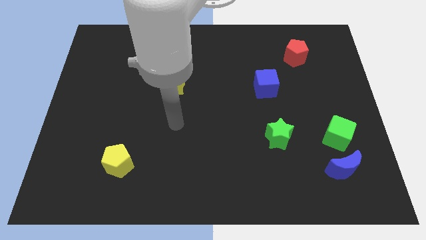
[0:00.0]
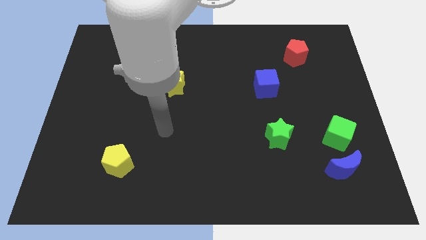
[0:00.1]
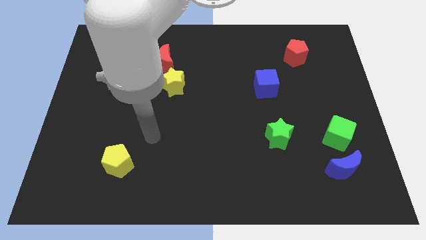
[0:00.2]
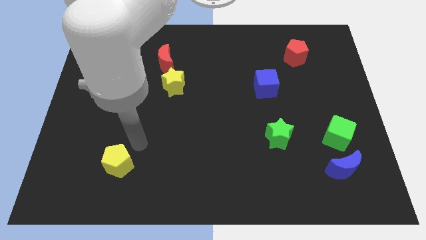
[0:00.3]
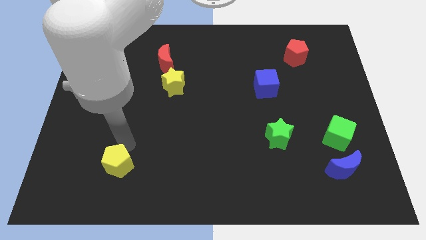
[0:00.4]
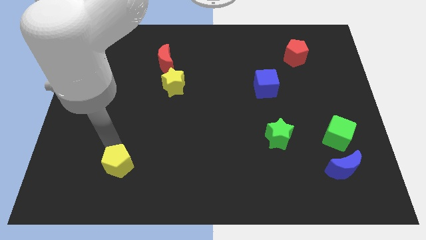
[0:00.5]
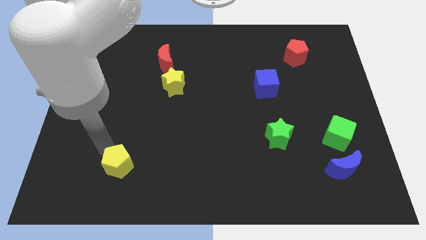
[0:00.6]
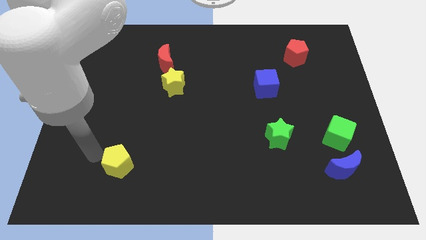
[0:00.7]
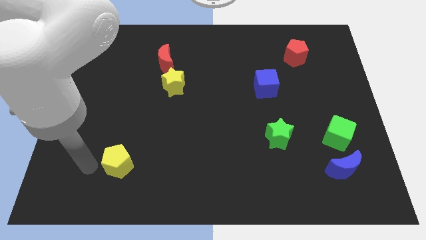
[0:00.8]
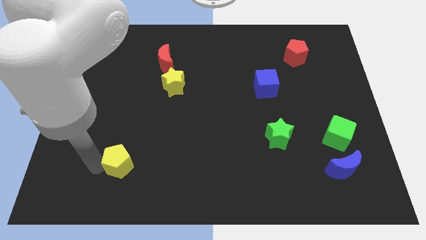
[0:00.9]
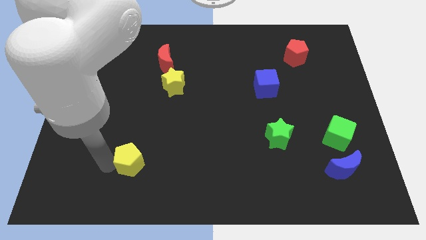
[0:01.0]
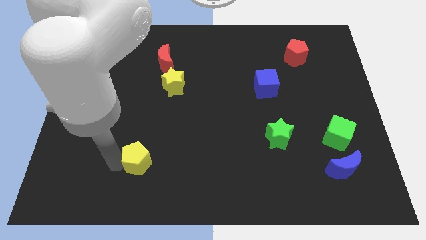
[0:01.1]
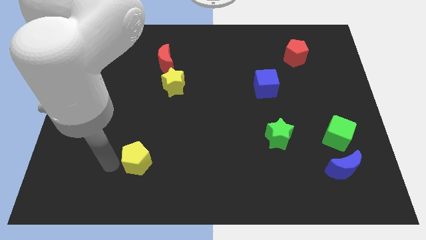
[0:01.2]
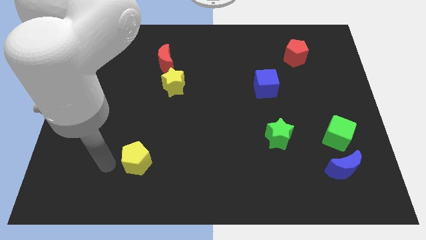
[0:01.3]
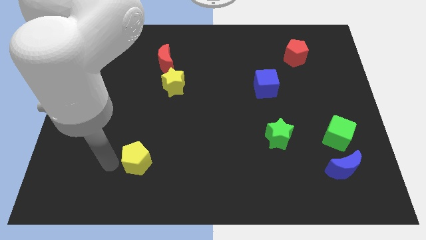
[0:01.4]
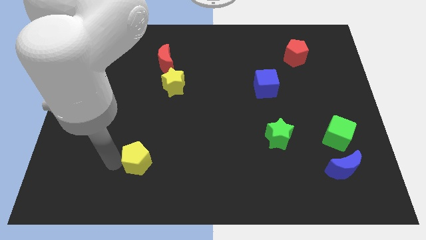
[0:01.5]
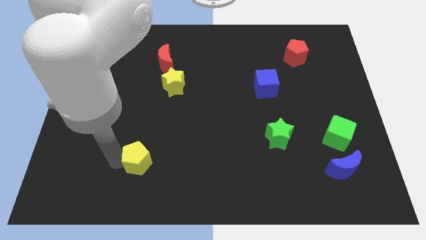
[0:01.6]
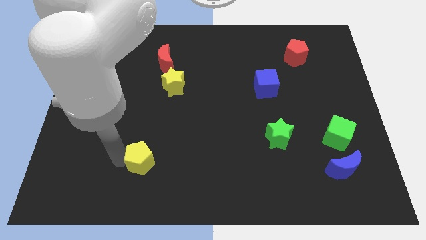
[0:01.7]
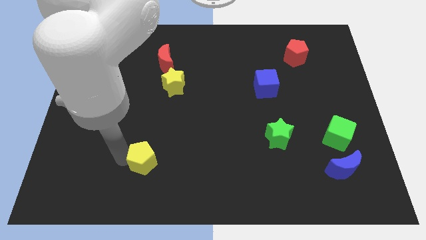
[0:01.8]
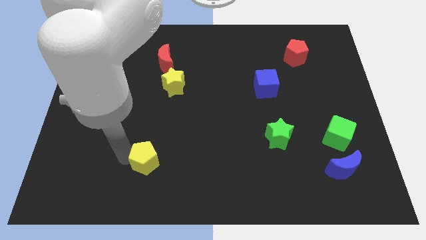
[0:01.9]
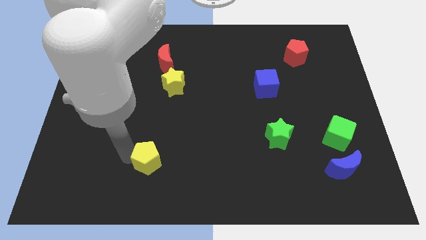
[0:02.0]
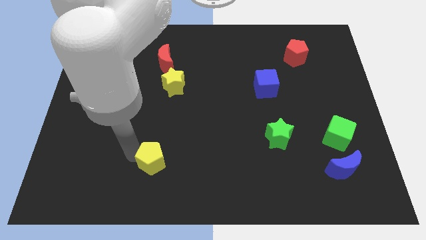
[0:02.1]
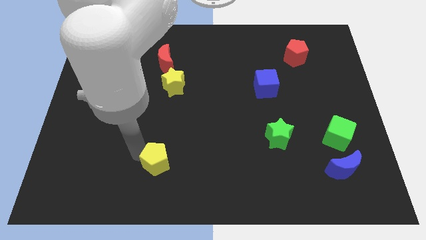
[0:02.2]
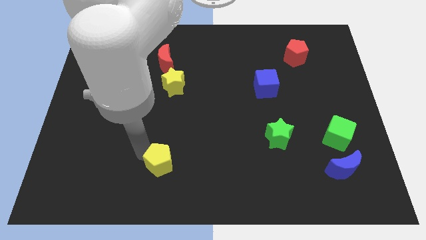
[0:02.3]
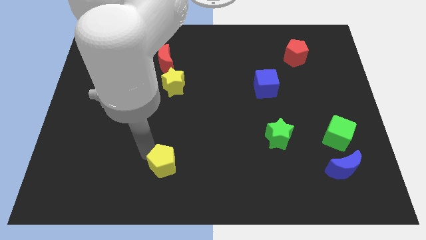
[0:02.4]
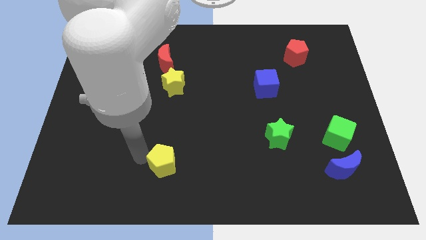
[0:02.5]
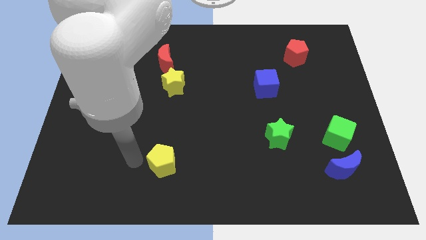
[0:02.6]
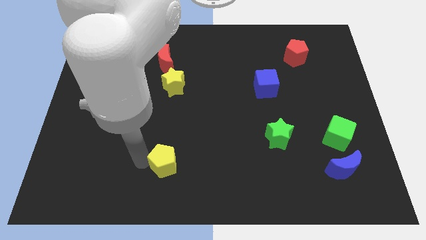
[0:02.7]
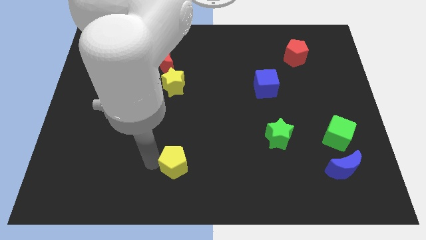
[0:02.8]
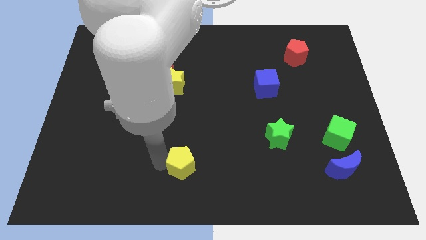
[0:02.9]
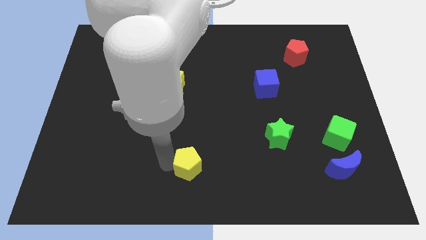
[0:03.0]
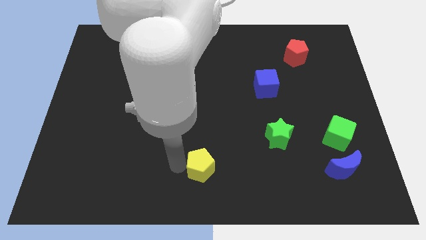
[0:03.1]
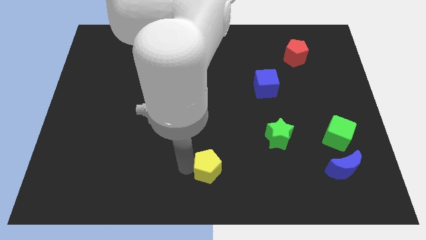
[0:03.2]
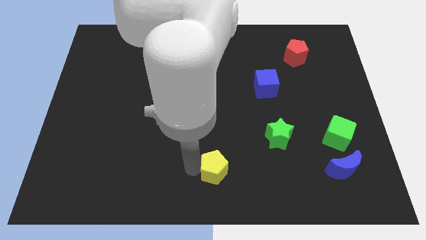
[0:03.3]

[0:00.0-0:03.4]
slide the yellow pentagon to the right

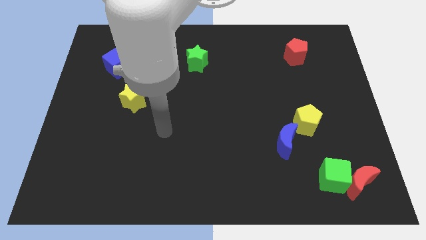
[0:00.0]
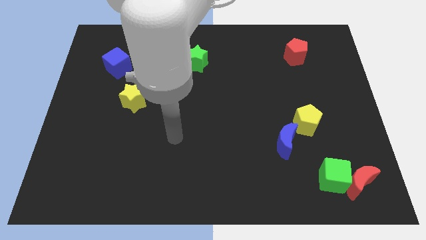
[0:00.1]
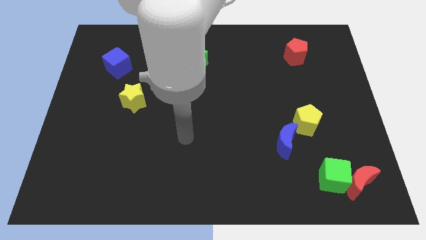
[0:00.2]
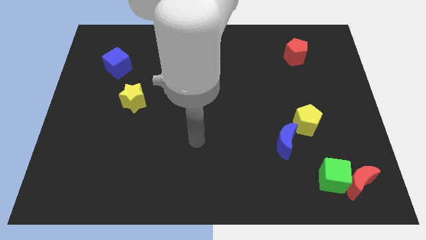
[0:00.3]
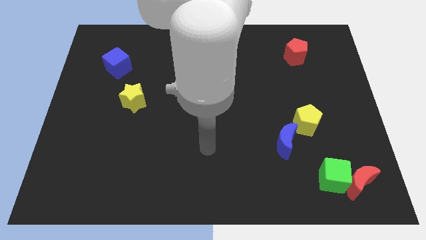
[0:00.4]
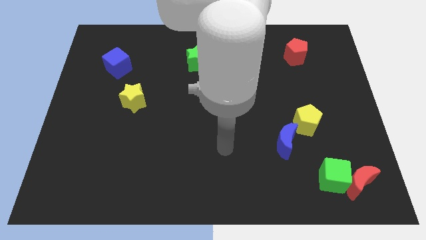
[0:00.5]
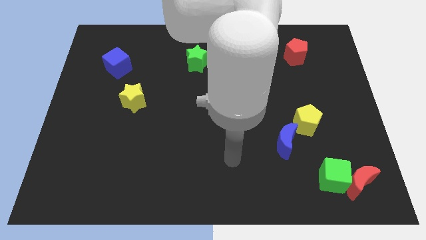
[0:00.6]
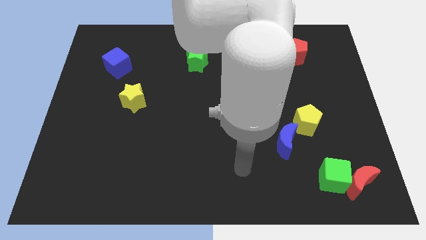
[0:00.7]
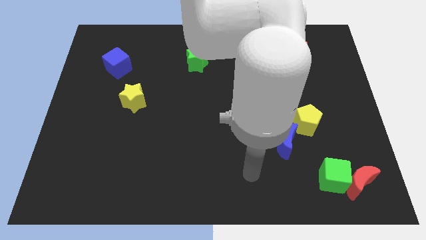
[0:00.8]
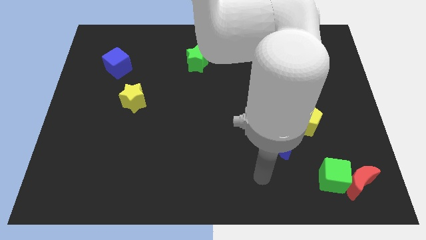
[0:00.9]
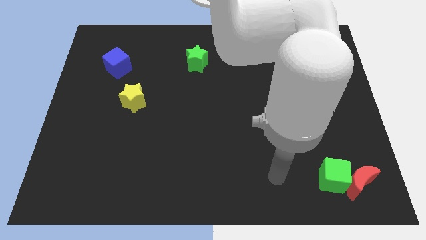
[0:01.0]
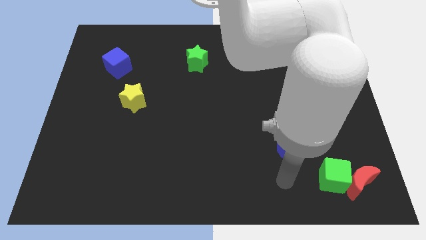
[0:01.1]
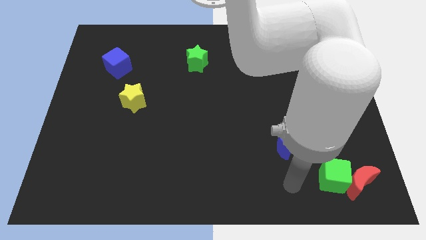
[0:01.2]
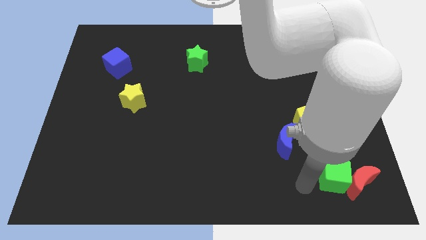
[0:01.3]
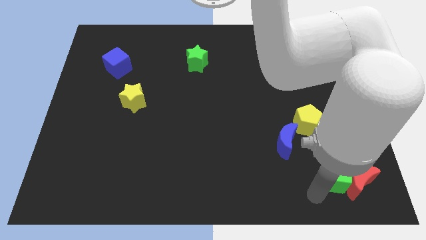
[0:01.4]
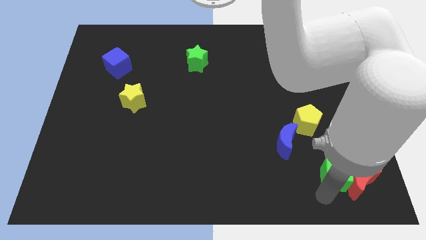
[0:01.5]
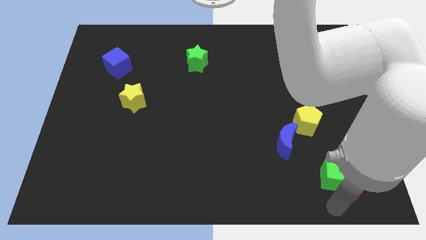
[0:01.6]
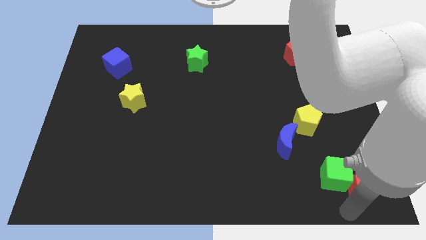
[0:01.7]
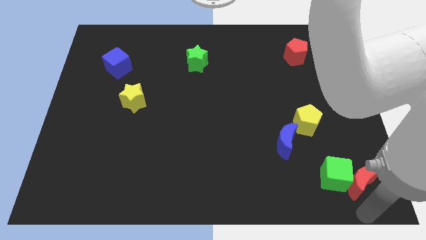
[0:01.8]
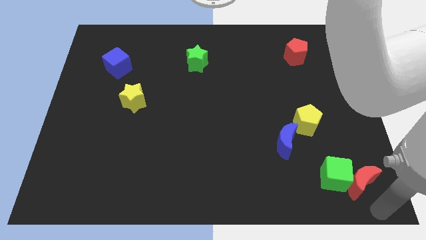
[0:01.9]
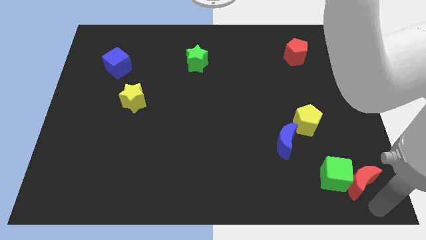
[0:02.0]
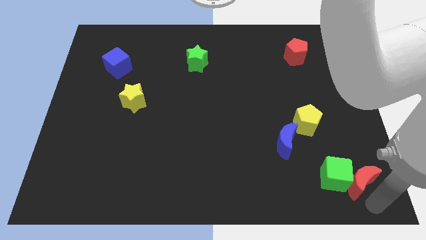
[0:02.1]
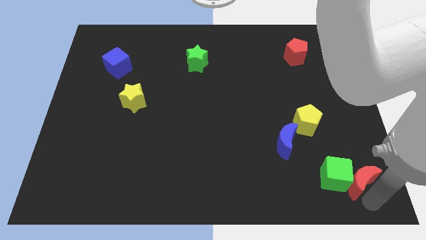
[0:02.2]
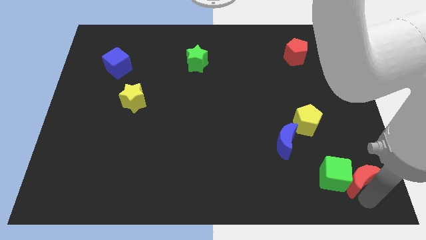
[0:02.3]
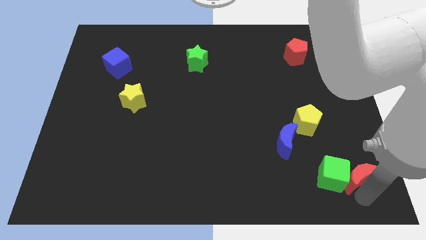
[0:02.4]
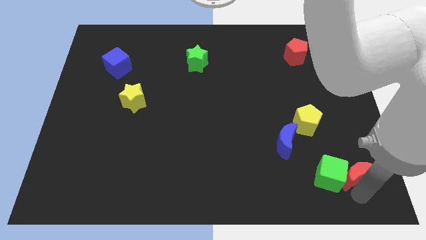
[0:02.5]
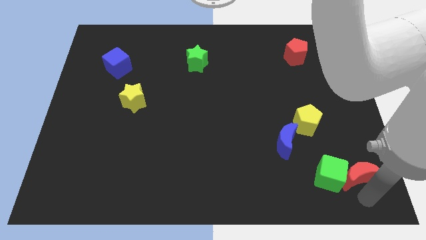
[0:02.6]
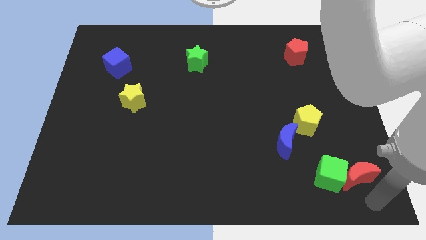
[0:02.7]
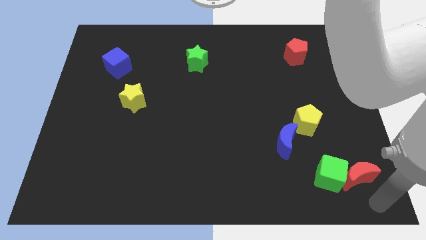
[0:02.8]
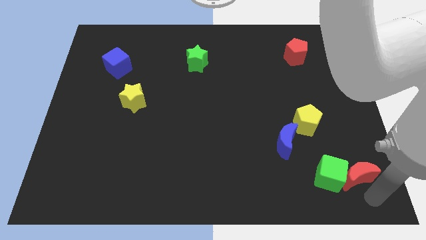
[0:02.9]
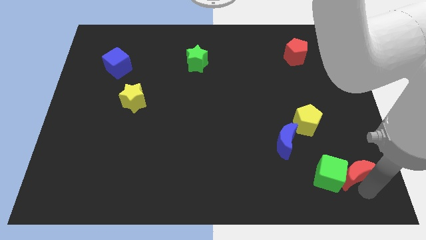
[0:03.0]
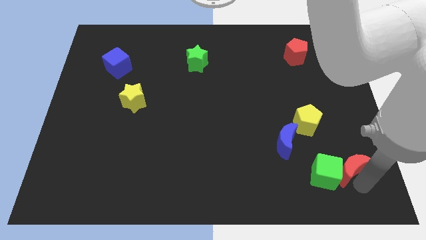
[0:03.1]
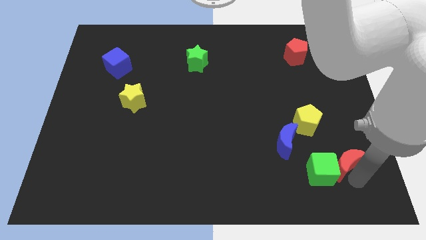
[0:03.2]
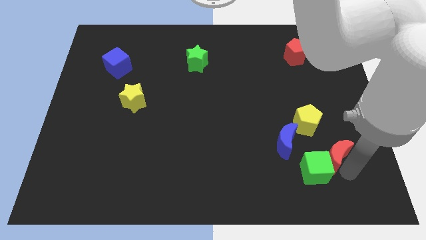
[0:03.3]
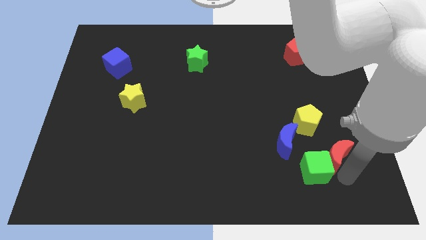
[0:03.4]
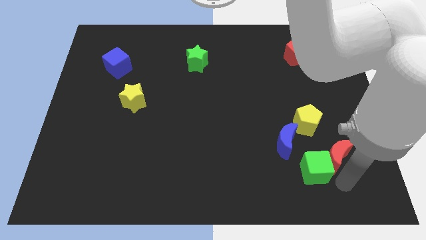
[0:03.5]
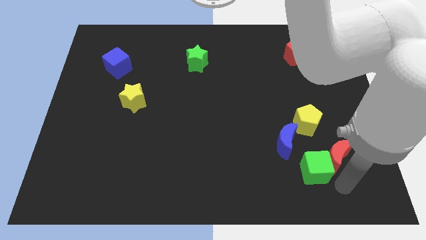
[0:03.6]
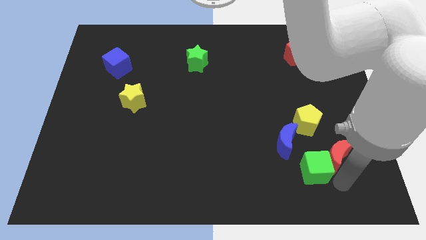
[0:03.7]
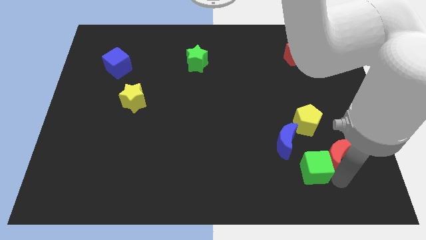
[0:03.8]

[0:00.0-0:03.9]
slightly slide the red moon up and to the left

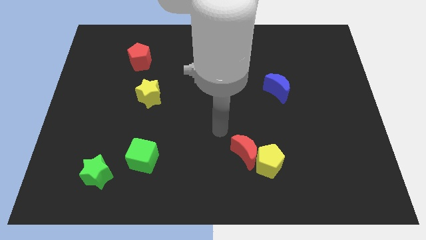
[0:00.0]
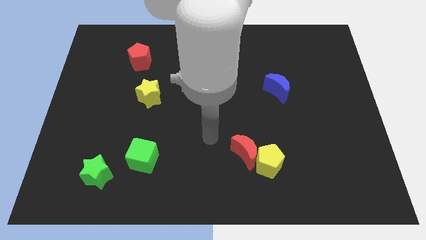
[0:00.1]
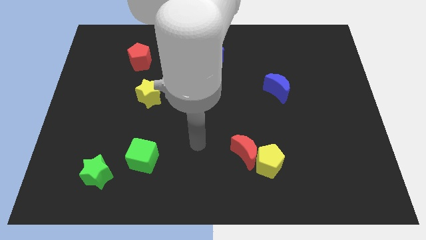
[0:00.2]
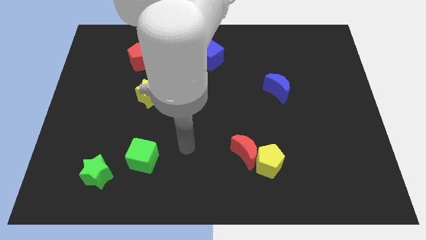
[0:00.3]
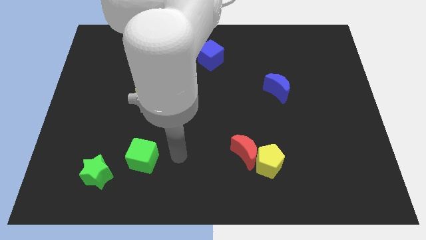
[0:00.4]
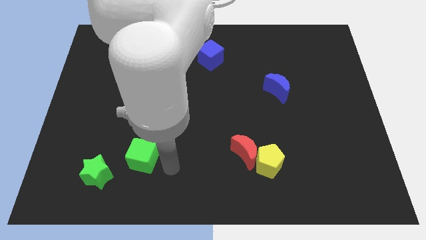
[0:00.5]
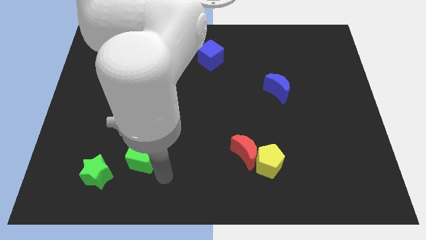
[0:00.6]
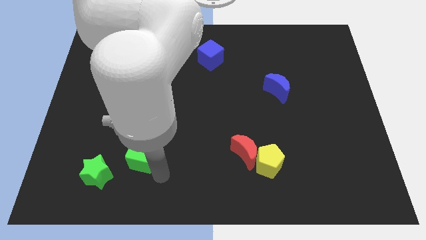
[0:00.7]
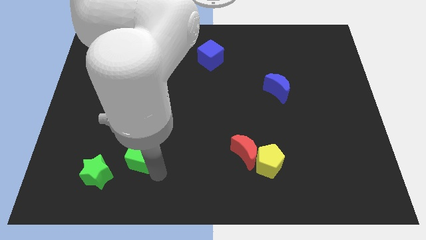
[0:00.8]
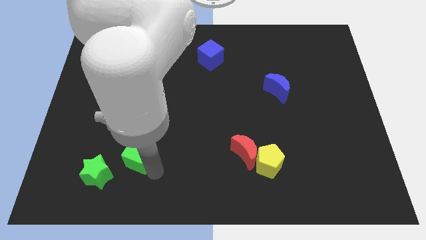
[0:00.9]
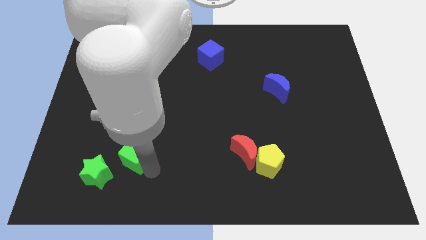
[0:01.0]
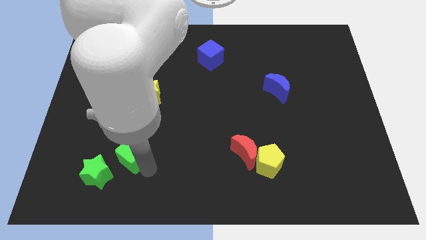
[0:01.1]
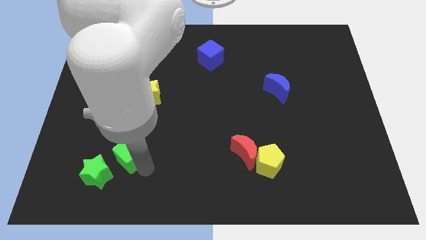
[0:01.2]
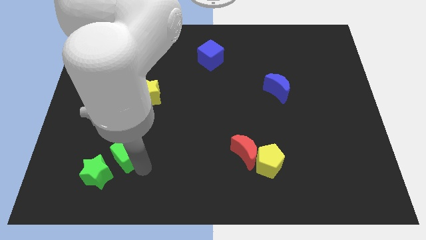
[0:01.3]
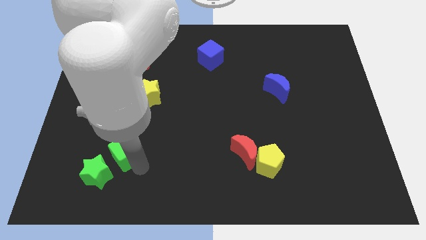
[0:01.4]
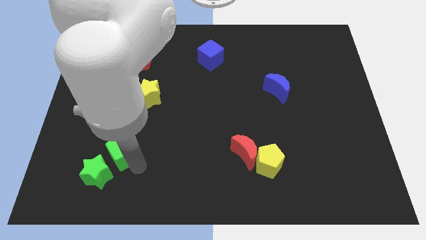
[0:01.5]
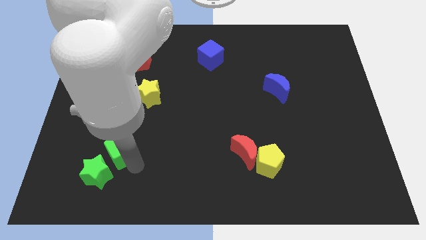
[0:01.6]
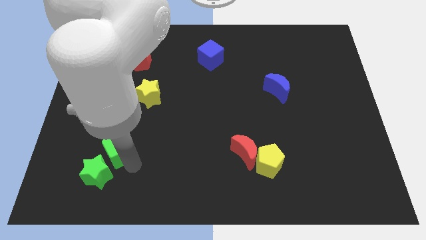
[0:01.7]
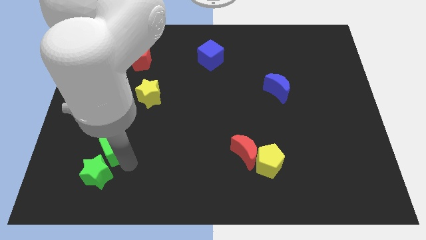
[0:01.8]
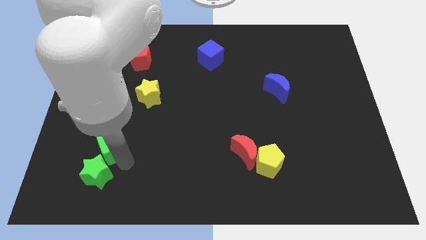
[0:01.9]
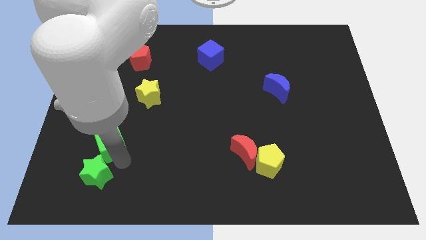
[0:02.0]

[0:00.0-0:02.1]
slide the green cube a little bit diagonally upwards and to the left
